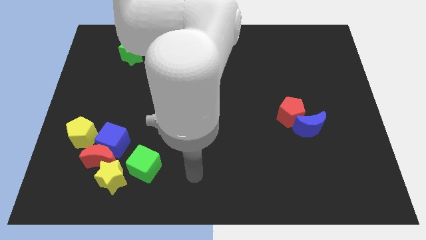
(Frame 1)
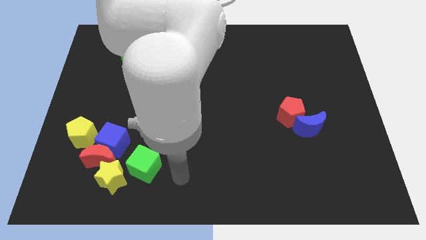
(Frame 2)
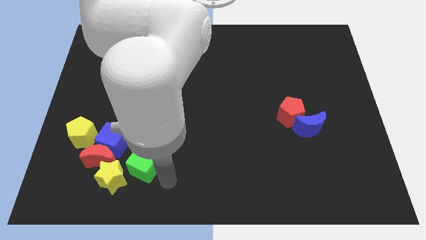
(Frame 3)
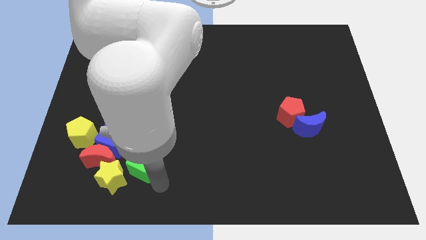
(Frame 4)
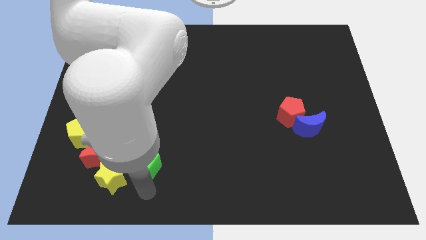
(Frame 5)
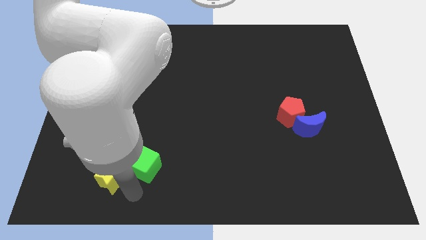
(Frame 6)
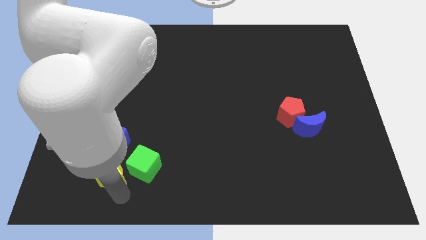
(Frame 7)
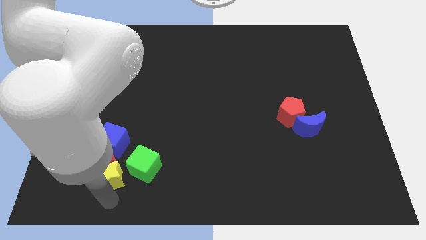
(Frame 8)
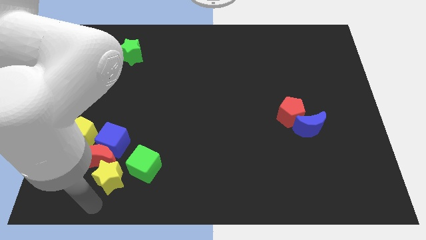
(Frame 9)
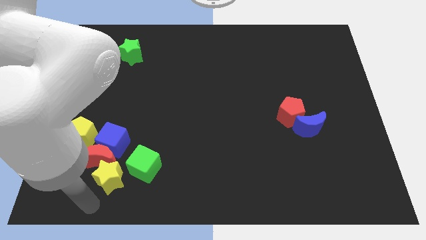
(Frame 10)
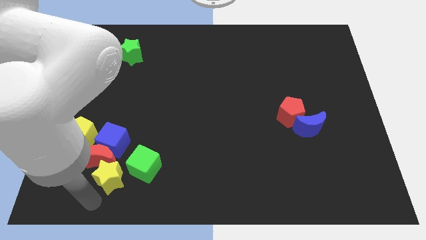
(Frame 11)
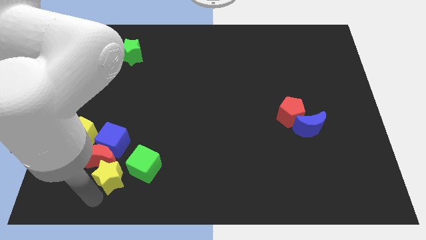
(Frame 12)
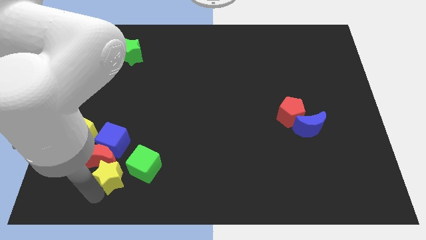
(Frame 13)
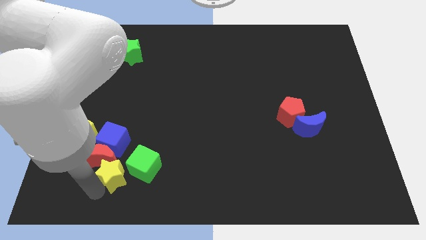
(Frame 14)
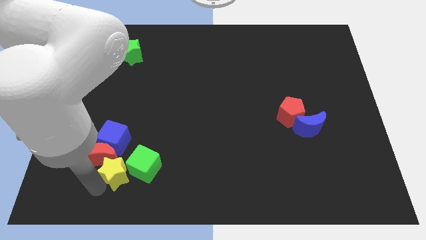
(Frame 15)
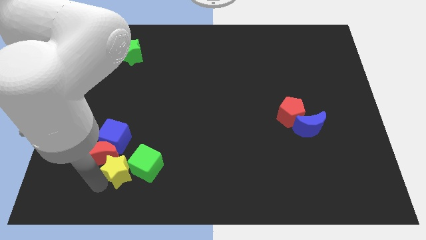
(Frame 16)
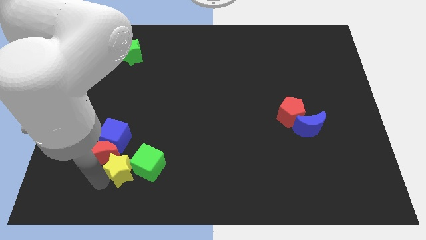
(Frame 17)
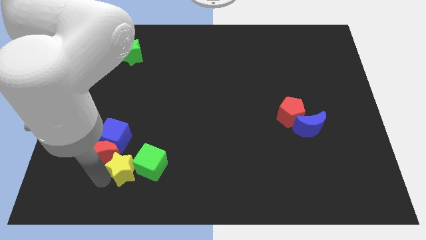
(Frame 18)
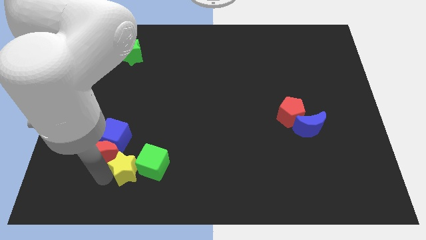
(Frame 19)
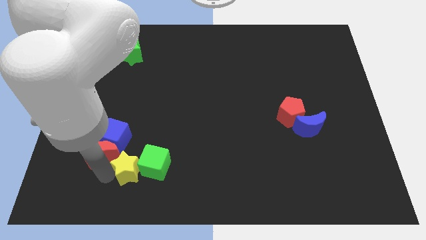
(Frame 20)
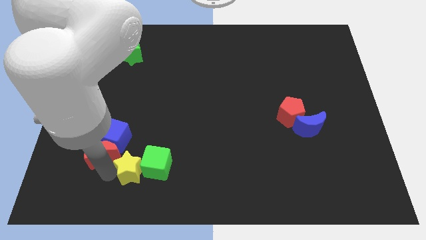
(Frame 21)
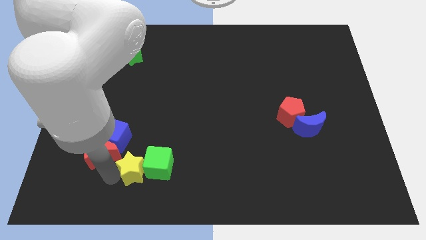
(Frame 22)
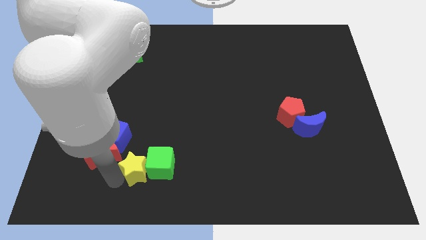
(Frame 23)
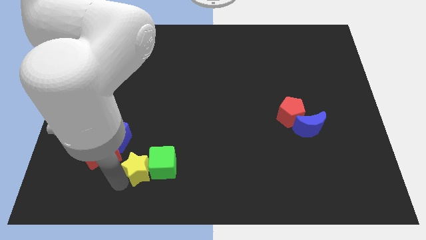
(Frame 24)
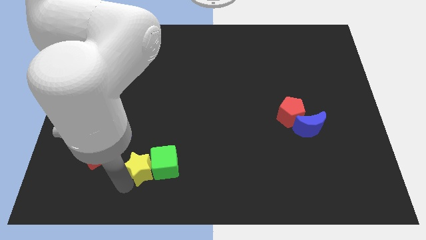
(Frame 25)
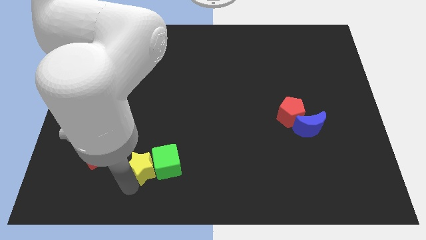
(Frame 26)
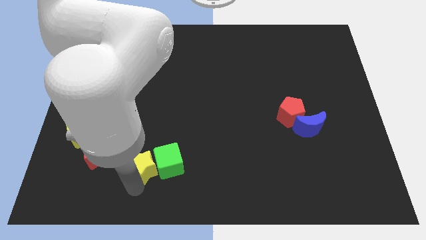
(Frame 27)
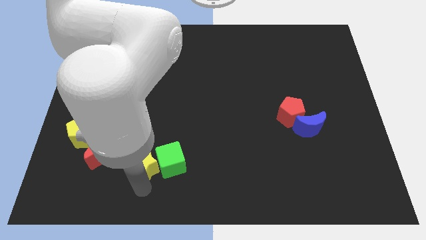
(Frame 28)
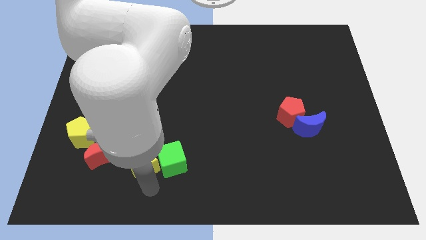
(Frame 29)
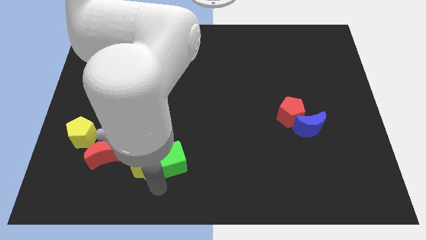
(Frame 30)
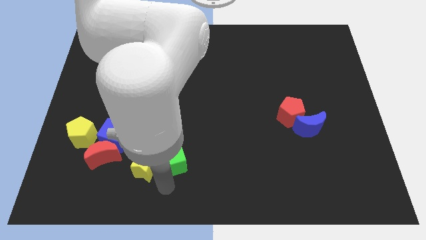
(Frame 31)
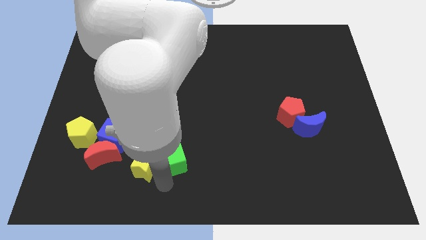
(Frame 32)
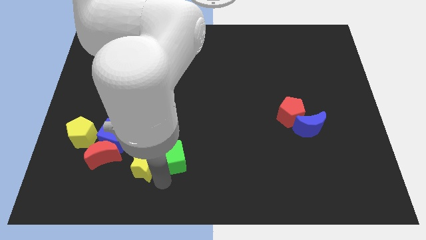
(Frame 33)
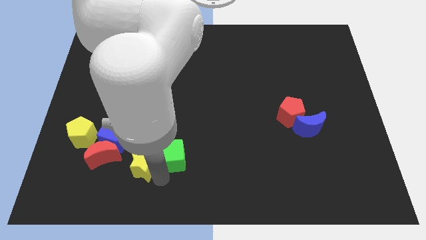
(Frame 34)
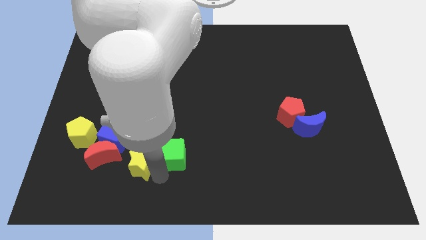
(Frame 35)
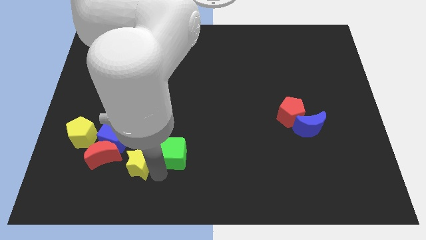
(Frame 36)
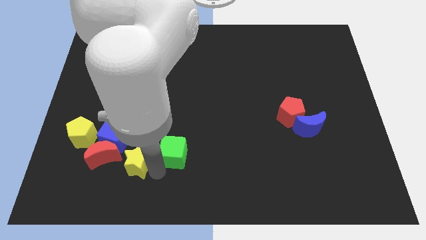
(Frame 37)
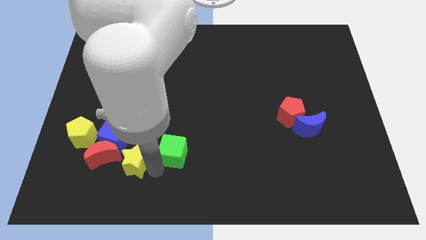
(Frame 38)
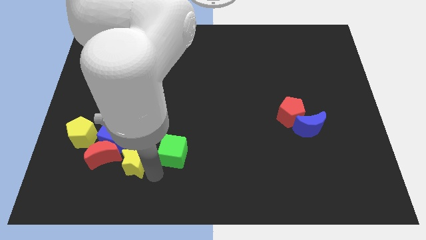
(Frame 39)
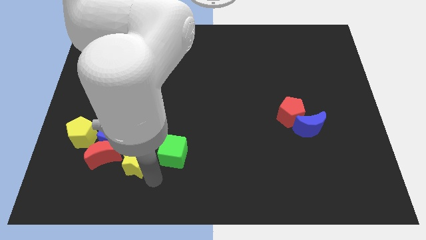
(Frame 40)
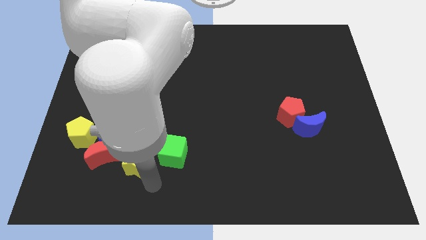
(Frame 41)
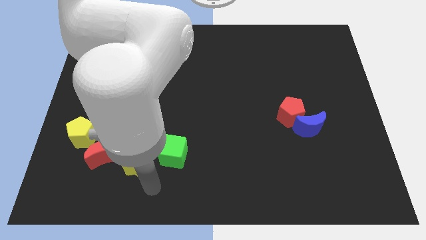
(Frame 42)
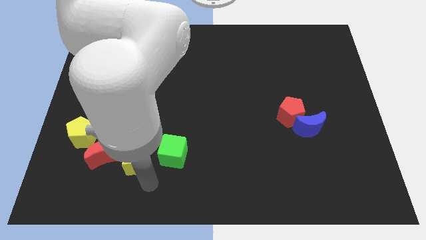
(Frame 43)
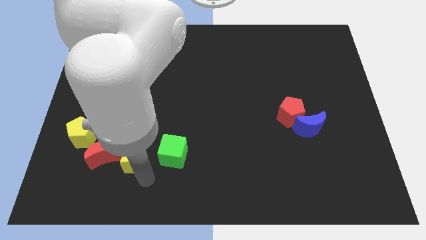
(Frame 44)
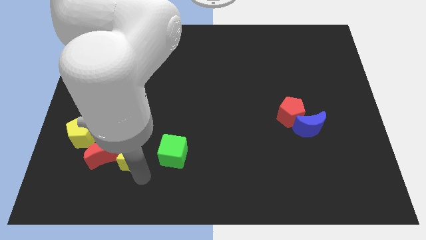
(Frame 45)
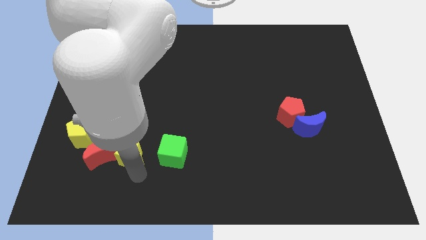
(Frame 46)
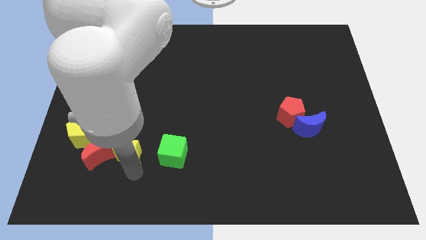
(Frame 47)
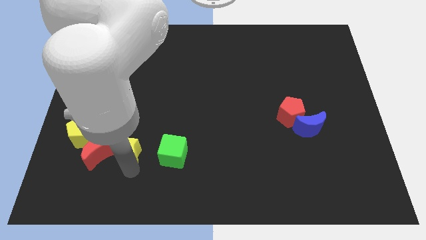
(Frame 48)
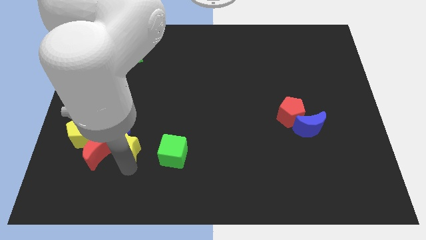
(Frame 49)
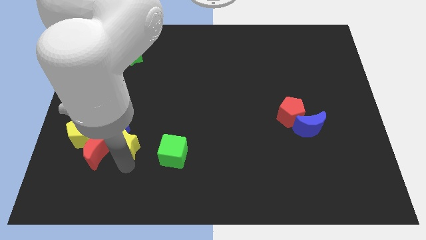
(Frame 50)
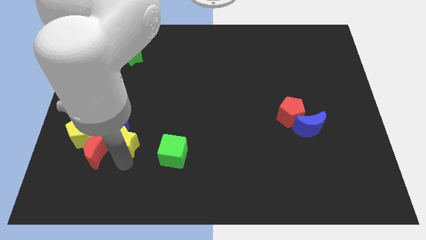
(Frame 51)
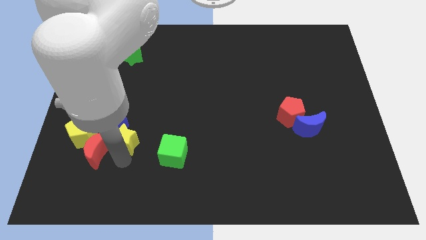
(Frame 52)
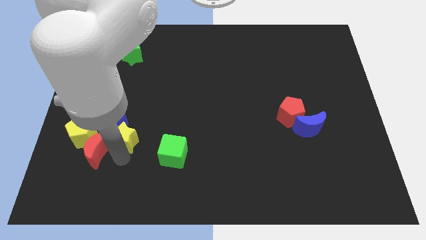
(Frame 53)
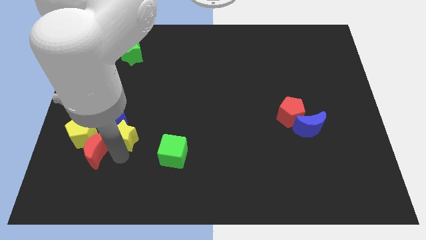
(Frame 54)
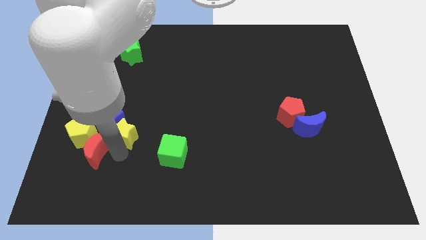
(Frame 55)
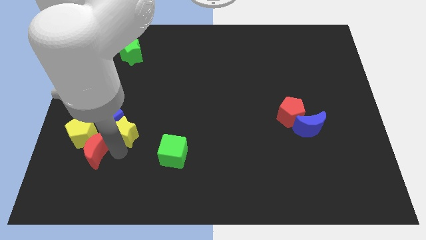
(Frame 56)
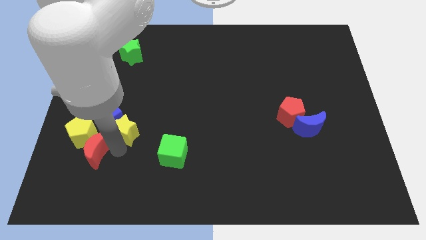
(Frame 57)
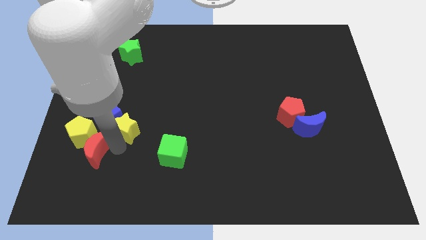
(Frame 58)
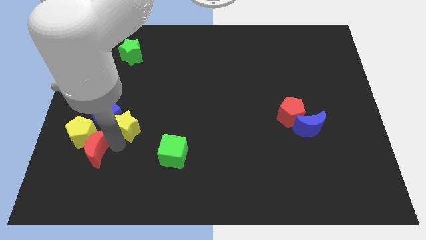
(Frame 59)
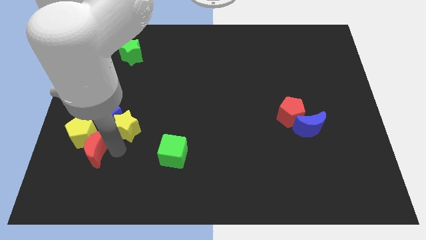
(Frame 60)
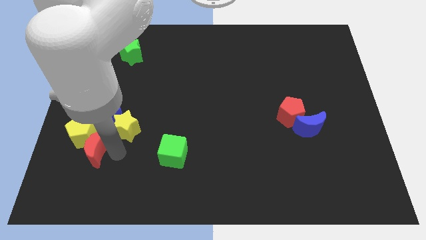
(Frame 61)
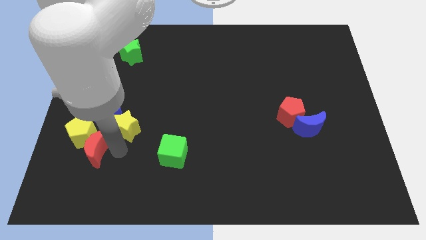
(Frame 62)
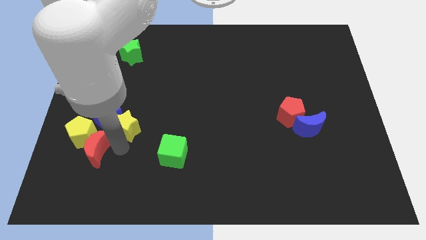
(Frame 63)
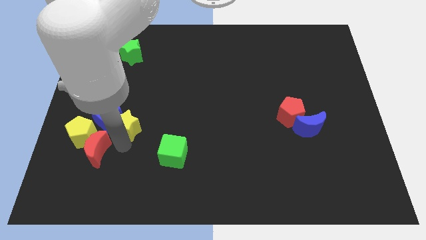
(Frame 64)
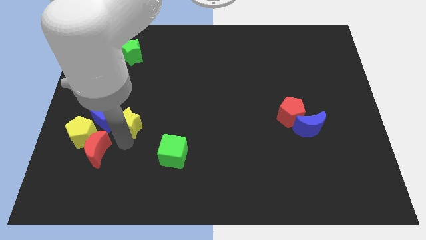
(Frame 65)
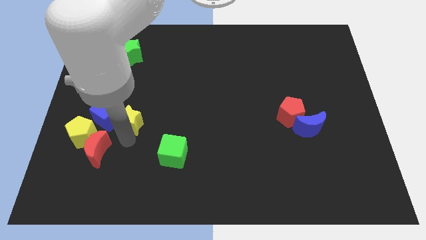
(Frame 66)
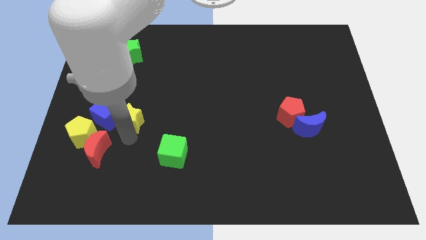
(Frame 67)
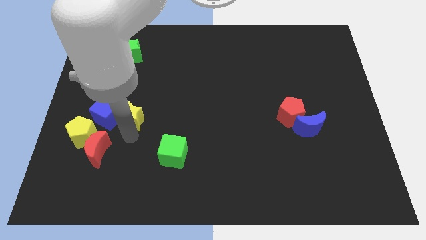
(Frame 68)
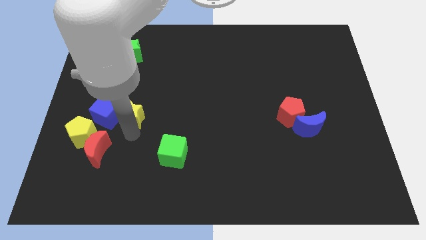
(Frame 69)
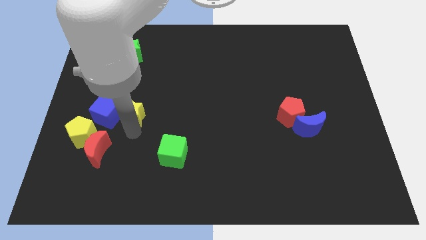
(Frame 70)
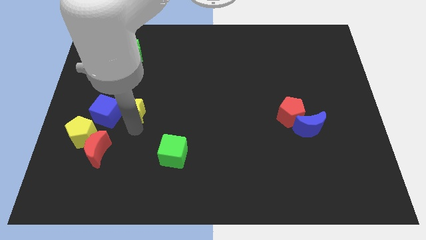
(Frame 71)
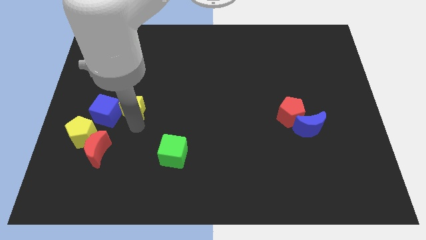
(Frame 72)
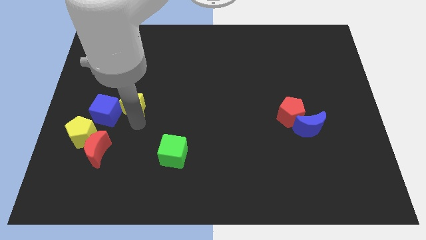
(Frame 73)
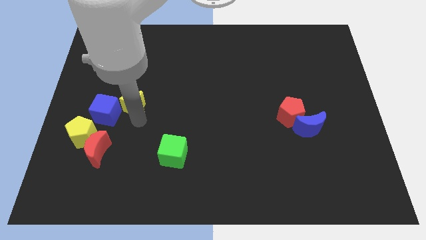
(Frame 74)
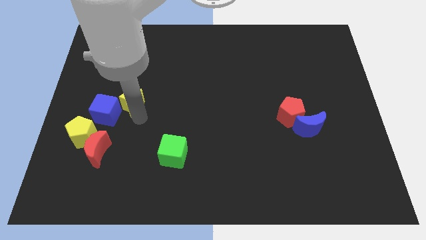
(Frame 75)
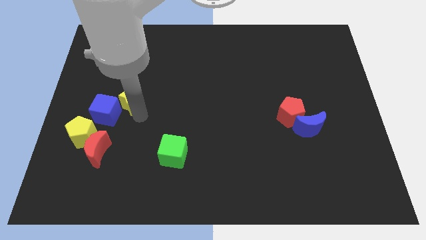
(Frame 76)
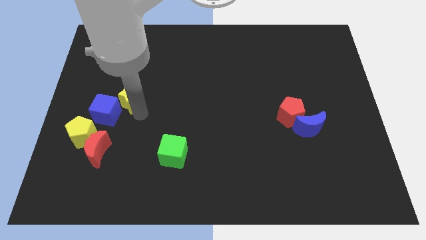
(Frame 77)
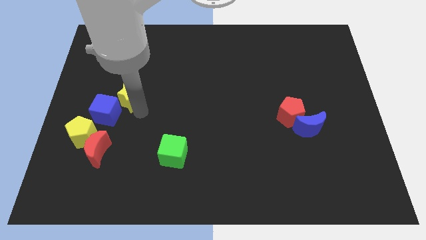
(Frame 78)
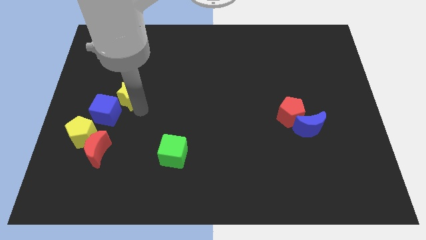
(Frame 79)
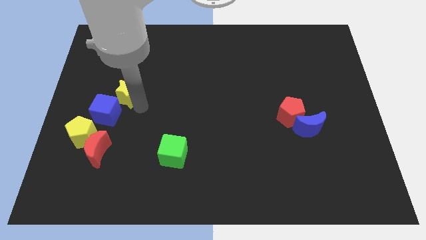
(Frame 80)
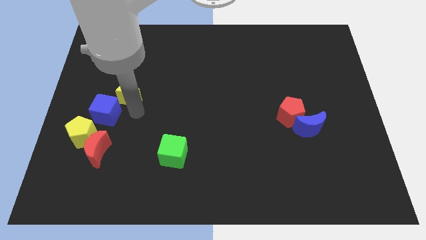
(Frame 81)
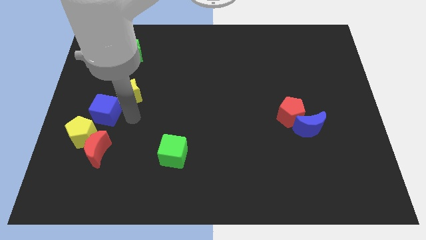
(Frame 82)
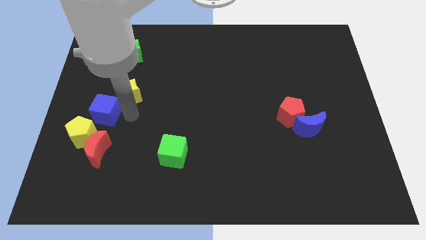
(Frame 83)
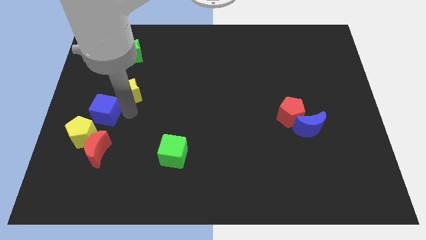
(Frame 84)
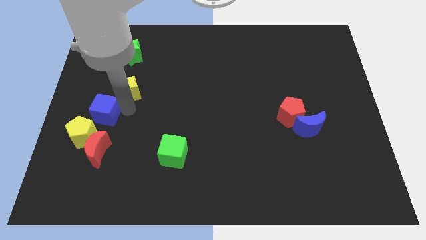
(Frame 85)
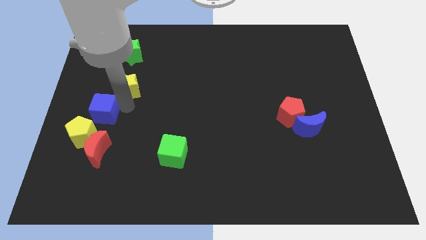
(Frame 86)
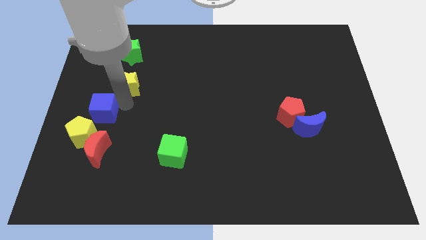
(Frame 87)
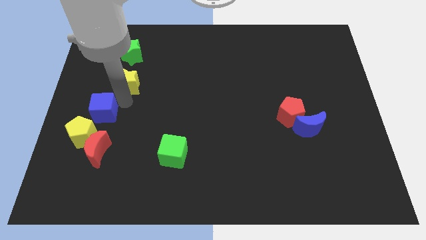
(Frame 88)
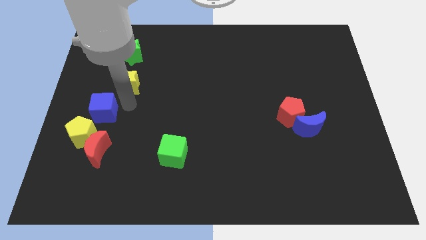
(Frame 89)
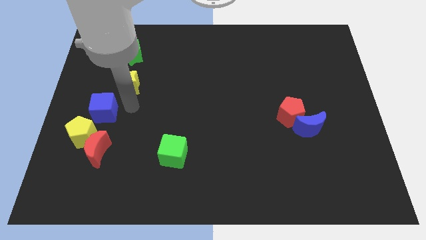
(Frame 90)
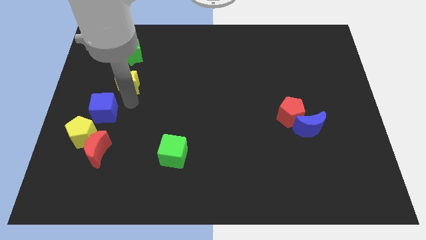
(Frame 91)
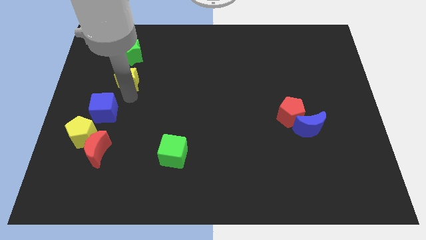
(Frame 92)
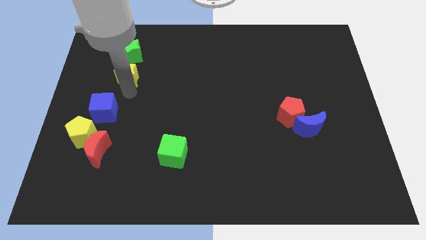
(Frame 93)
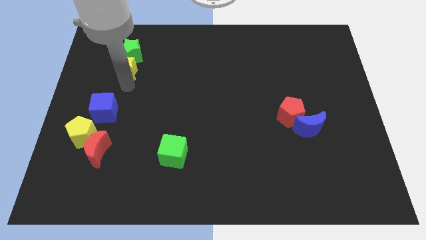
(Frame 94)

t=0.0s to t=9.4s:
put the yellow star to the green star
